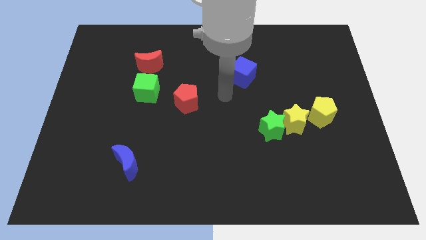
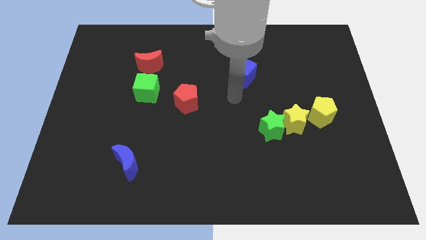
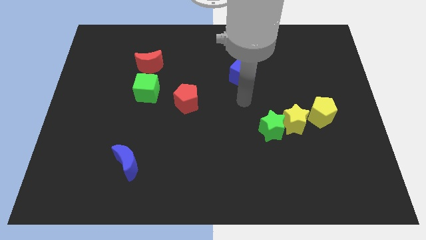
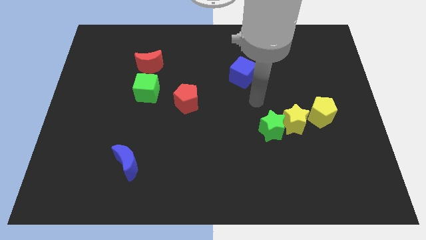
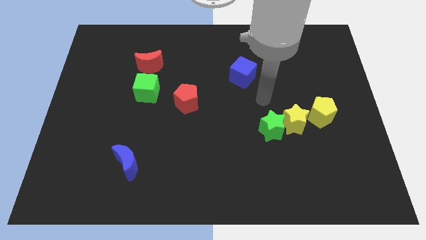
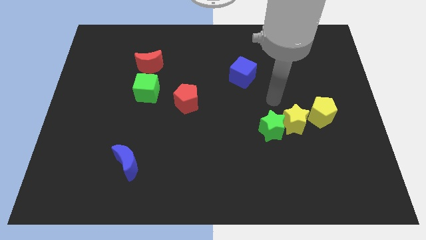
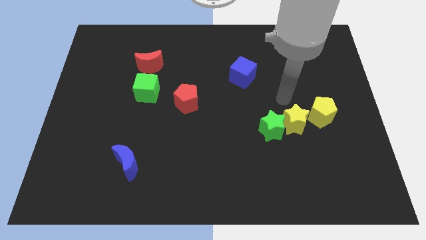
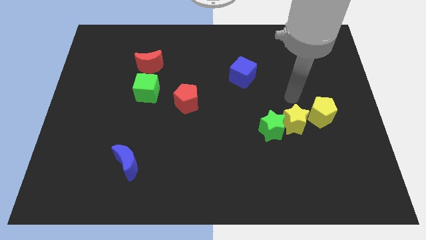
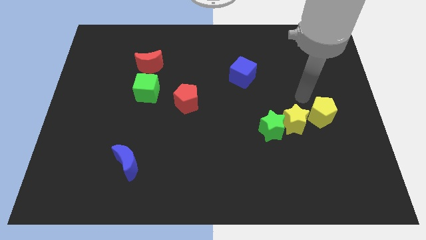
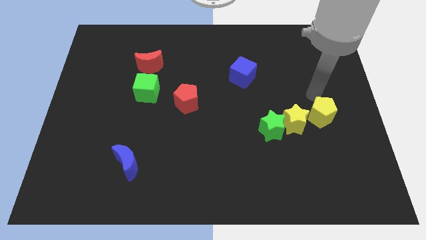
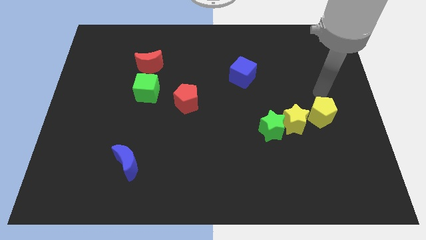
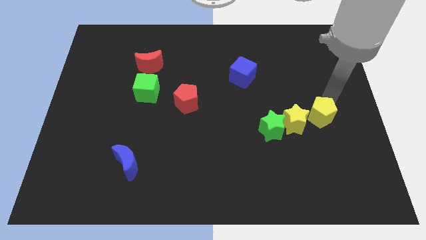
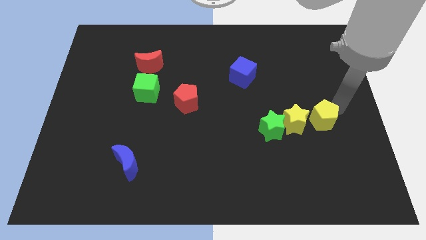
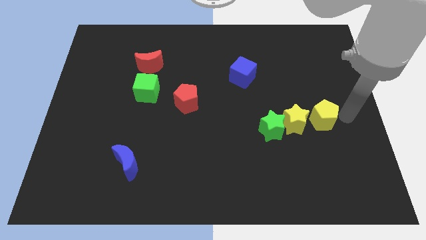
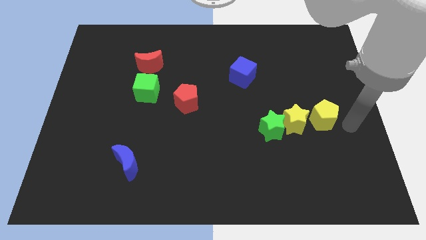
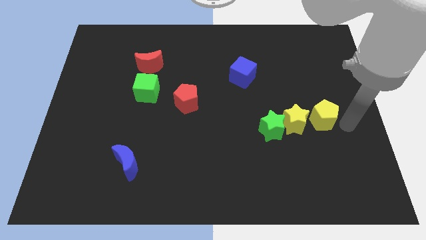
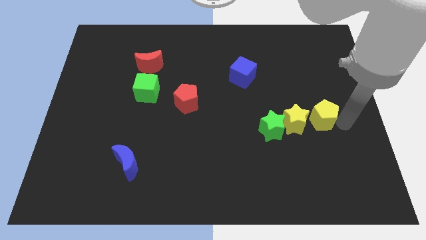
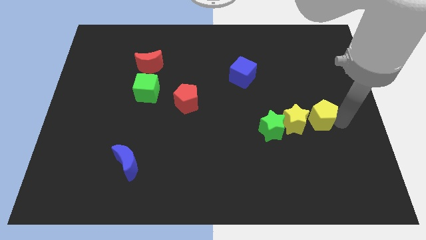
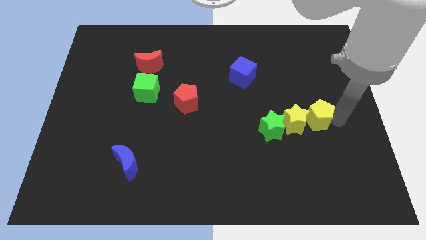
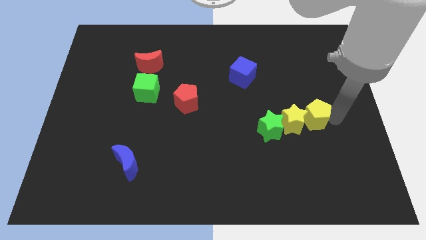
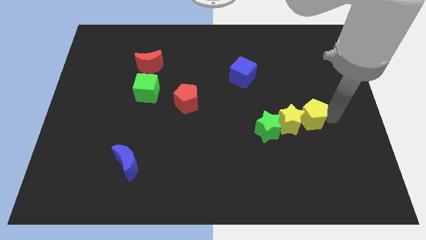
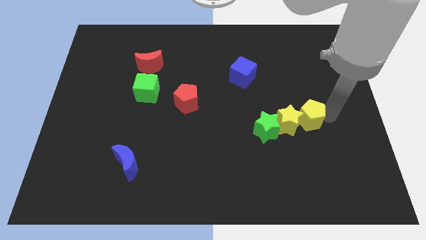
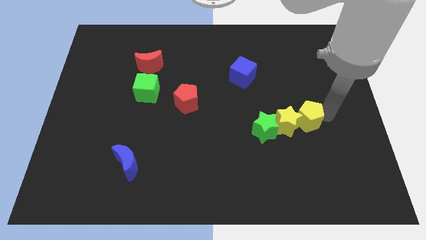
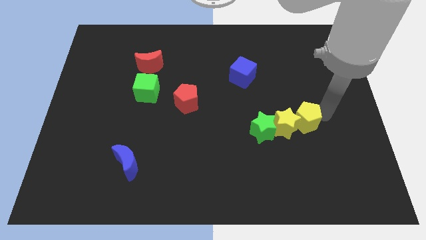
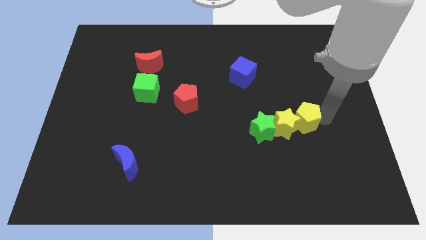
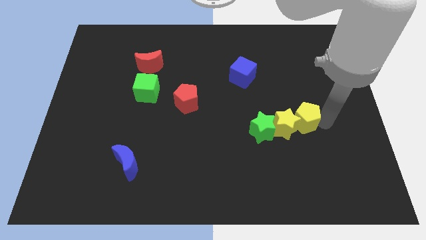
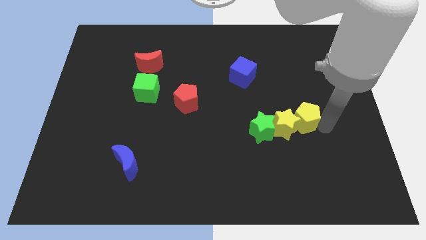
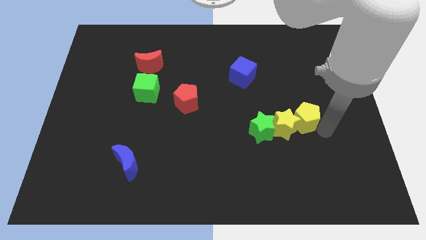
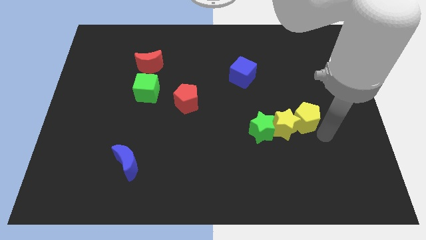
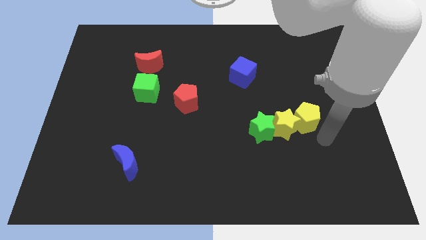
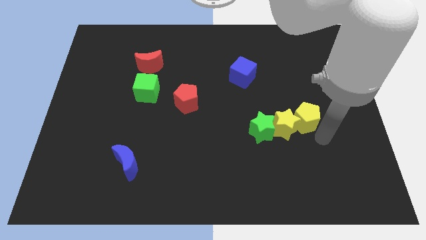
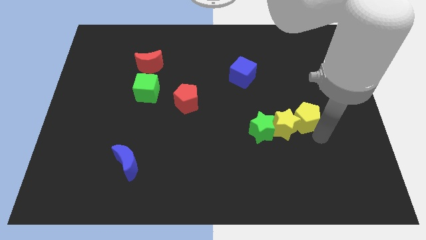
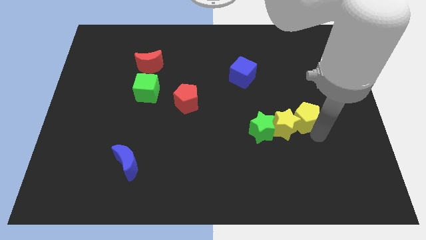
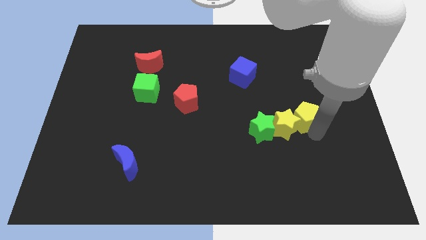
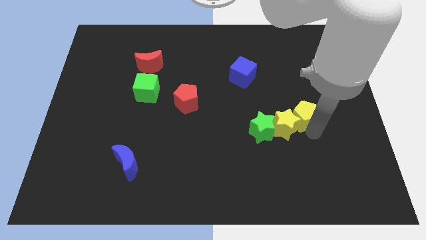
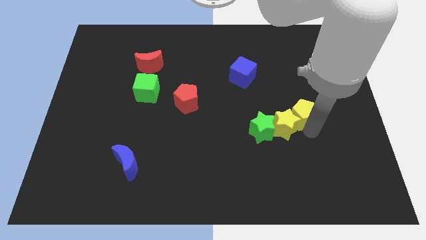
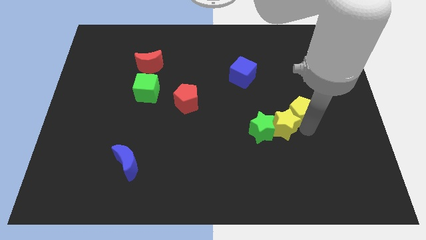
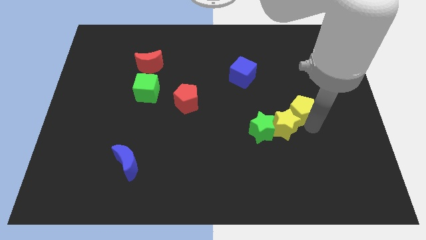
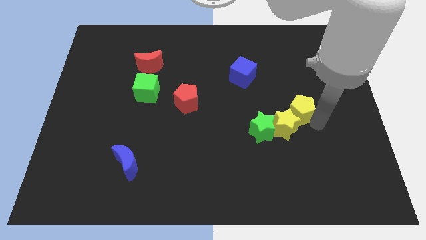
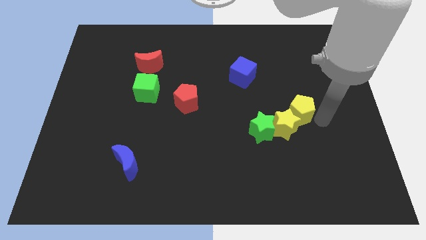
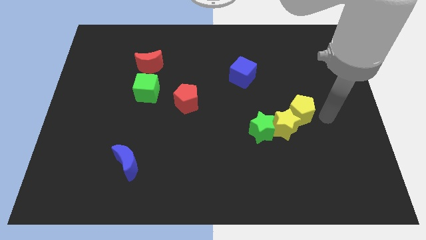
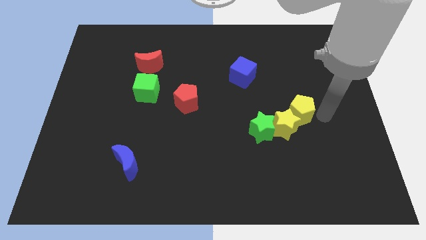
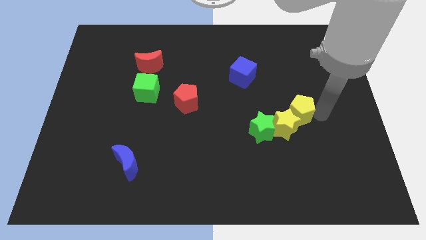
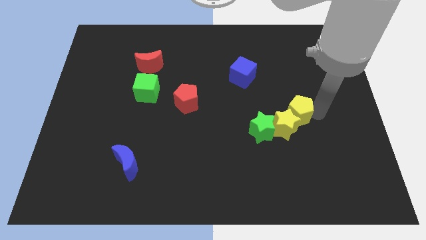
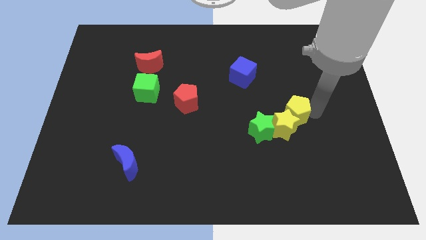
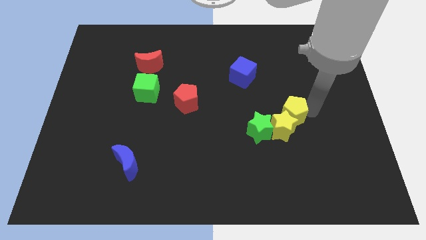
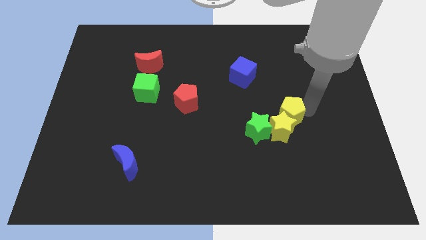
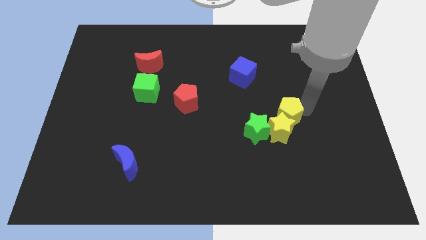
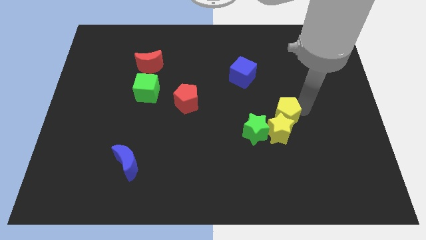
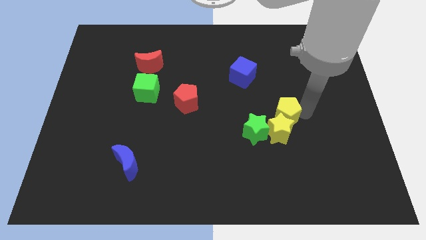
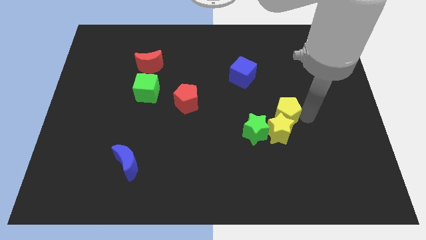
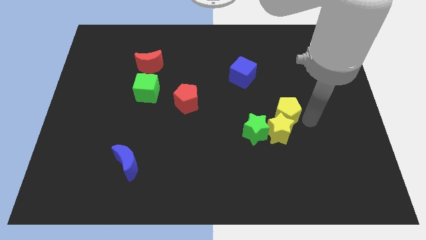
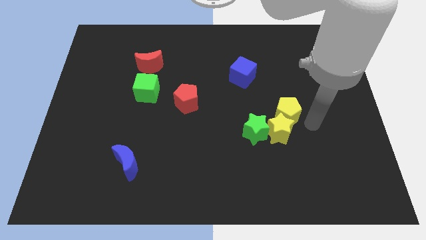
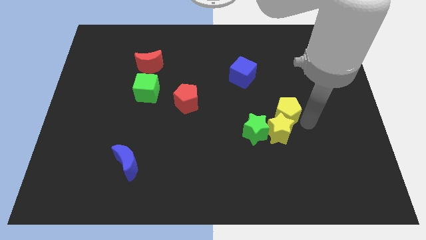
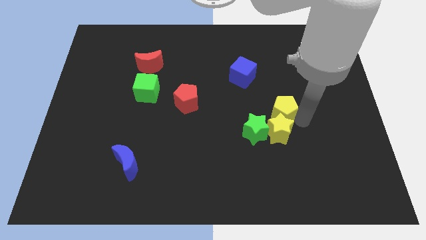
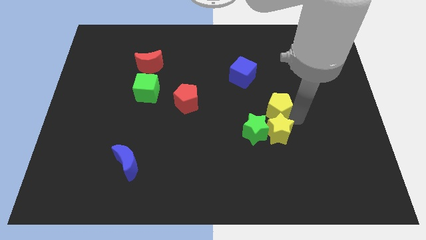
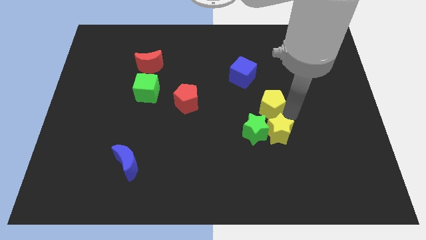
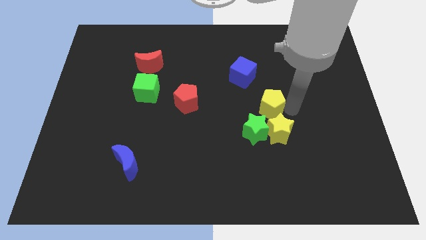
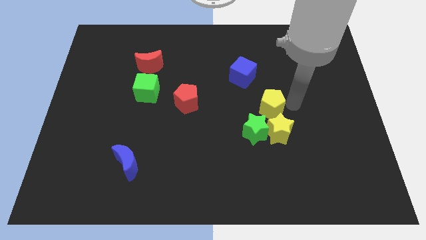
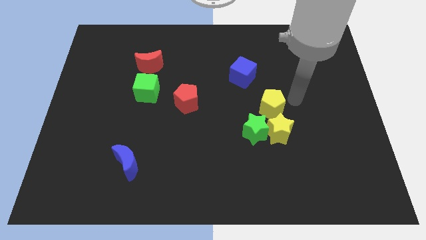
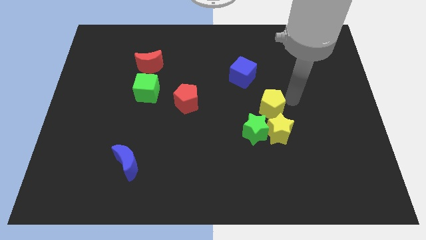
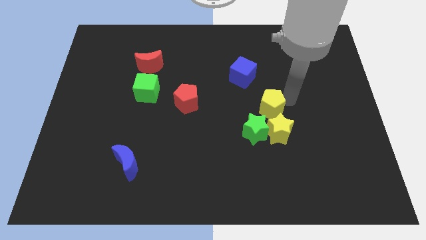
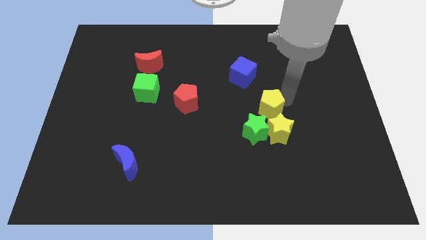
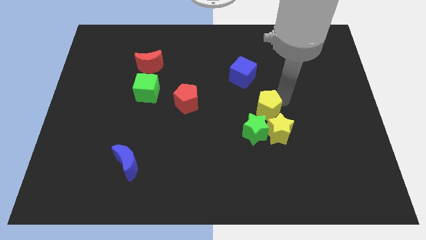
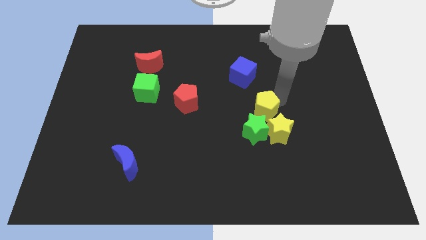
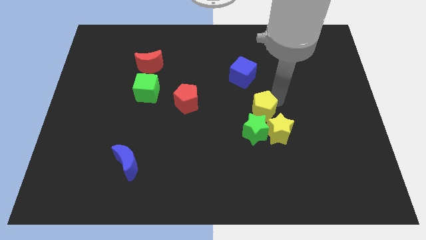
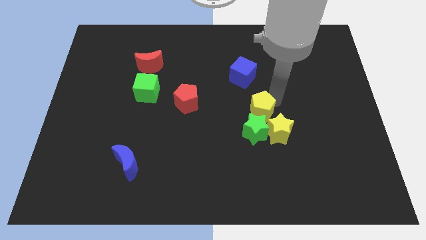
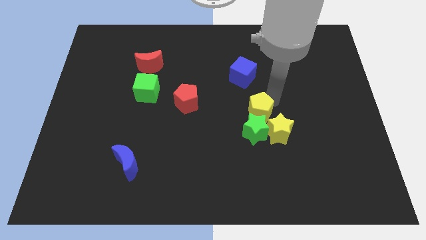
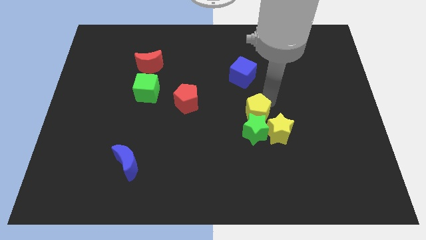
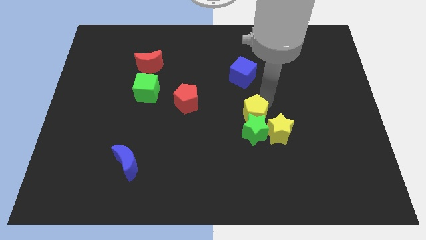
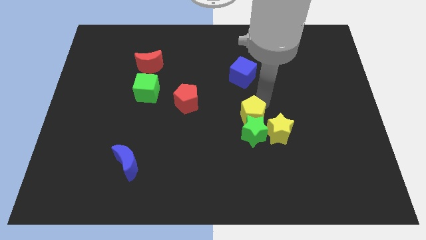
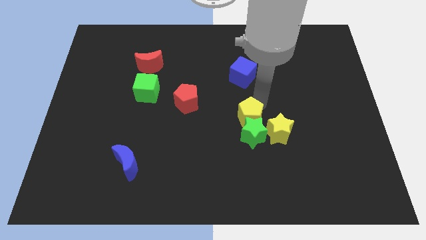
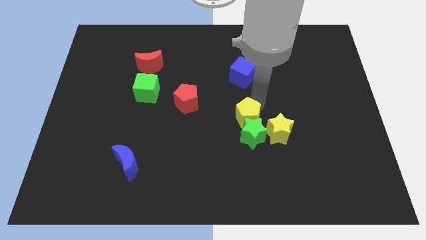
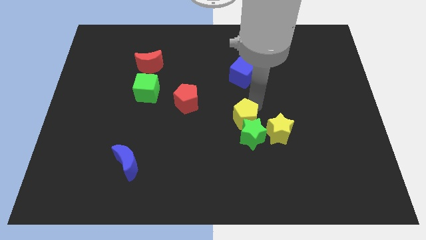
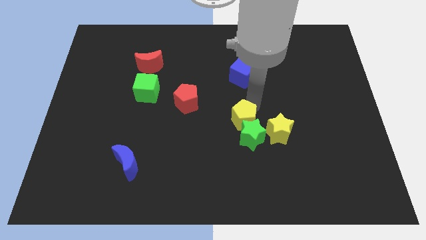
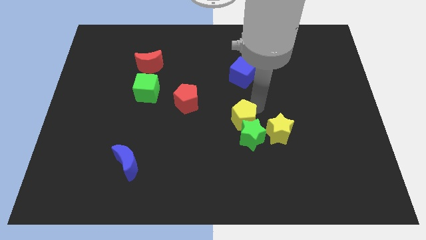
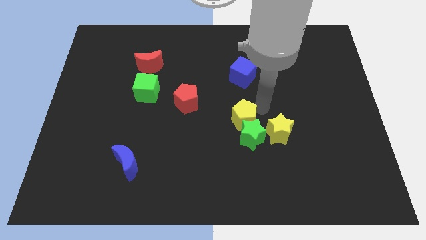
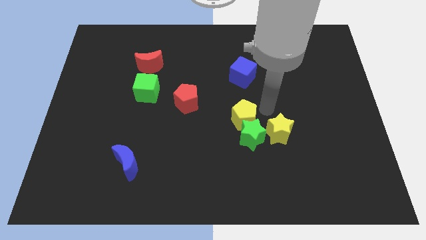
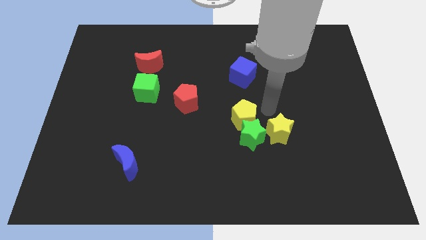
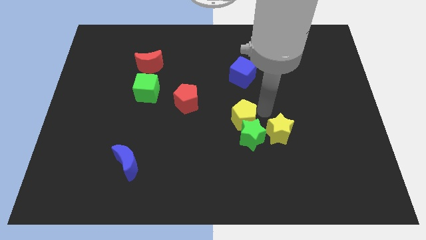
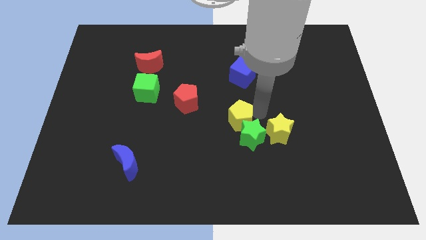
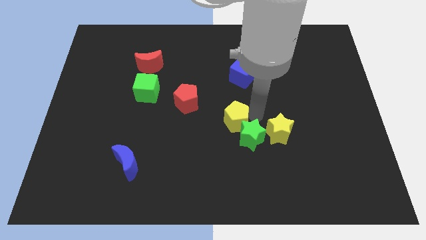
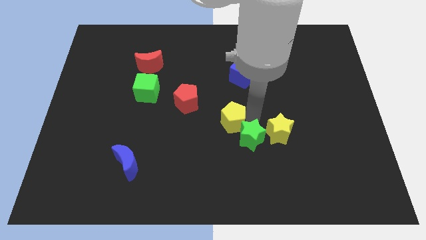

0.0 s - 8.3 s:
push the yellow pentagon to the left
